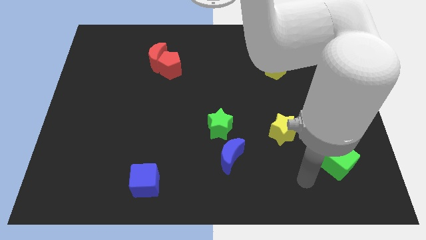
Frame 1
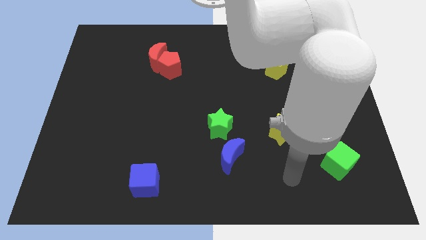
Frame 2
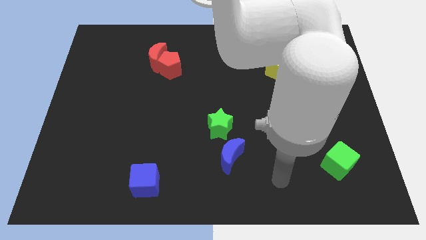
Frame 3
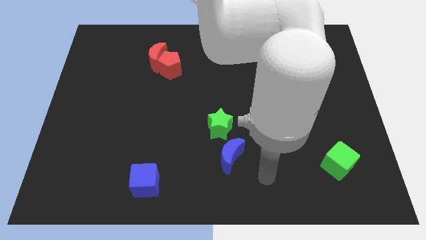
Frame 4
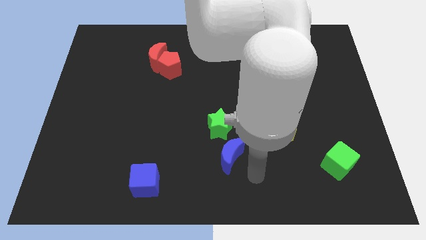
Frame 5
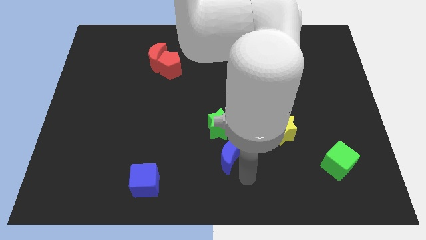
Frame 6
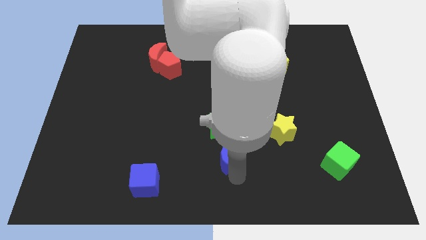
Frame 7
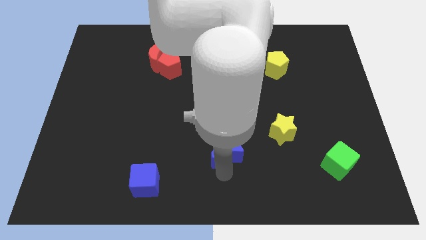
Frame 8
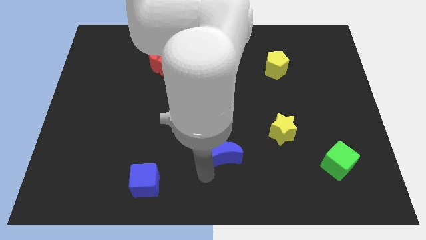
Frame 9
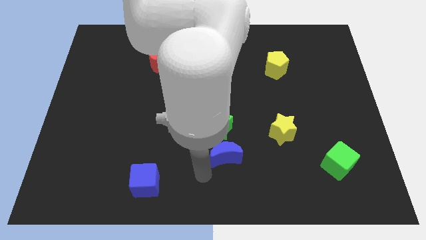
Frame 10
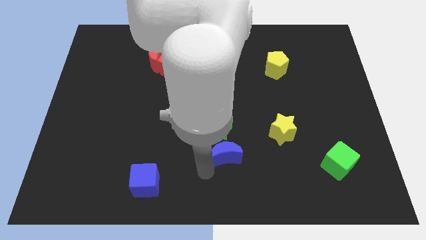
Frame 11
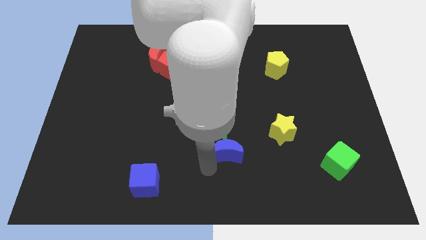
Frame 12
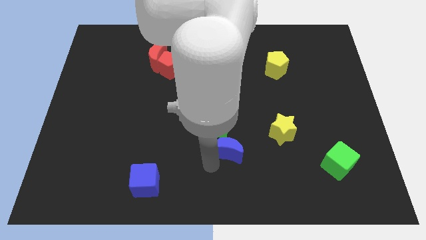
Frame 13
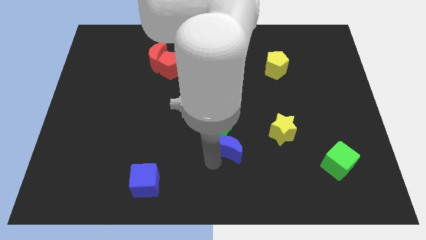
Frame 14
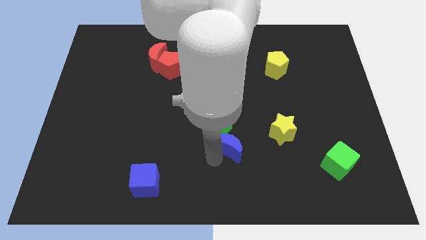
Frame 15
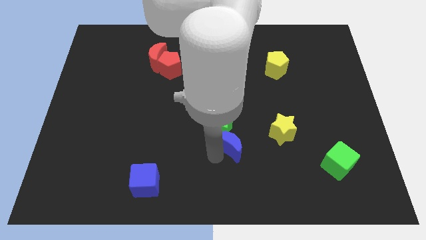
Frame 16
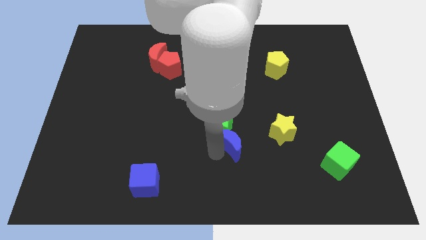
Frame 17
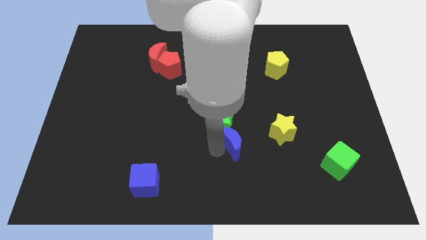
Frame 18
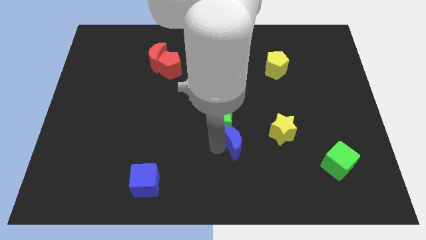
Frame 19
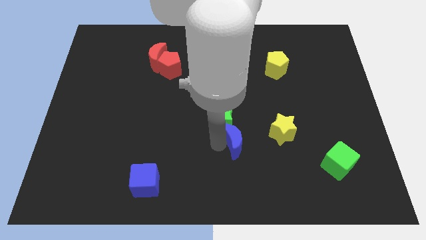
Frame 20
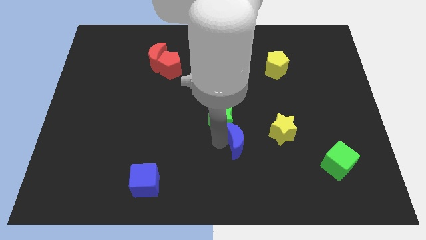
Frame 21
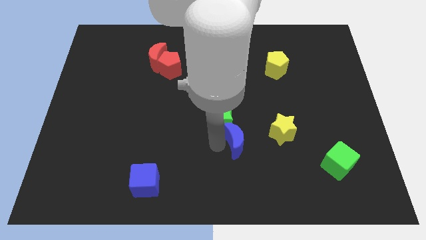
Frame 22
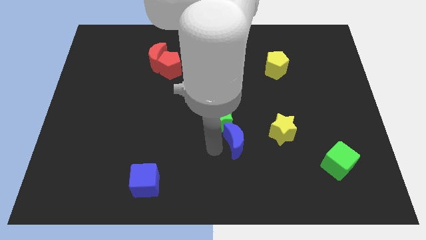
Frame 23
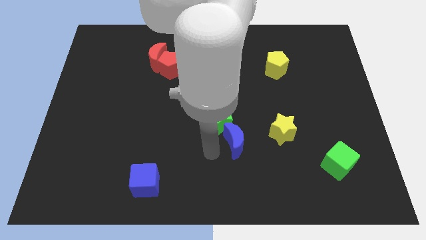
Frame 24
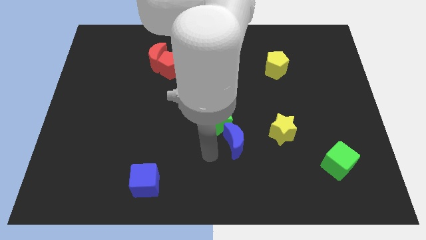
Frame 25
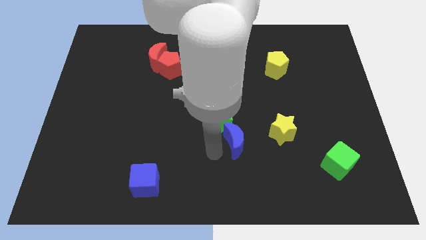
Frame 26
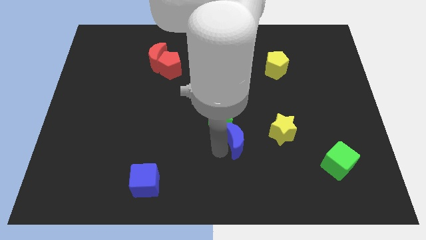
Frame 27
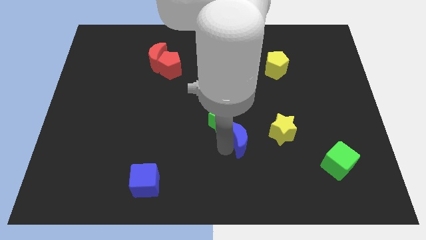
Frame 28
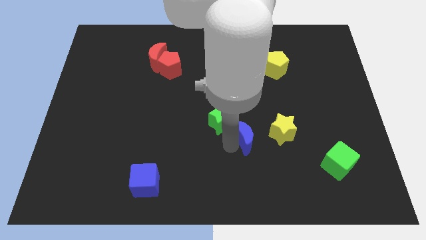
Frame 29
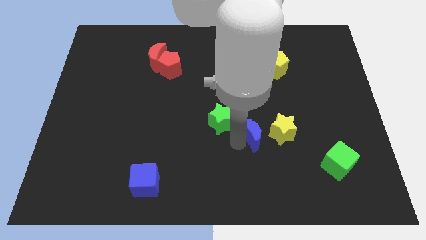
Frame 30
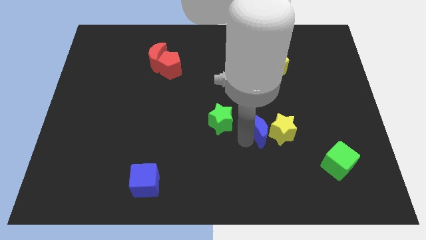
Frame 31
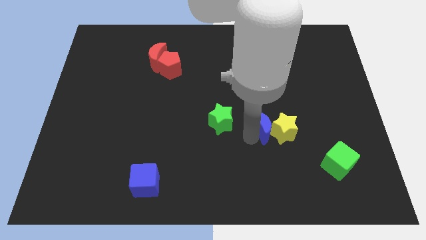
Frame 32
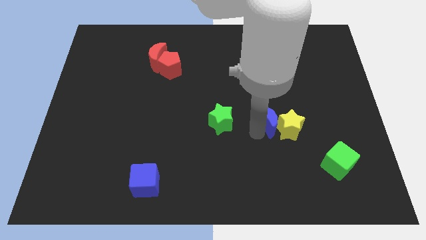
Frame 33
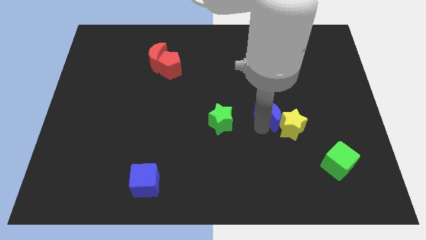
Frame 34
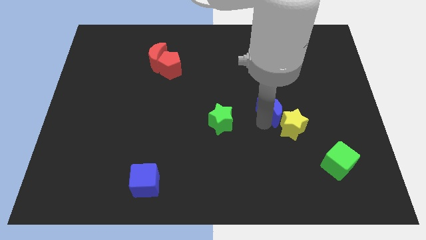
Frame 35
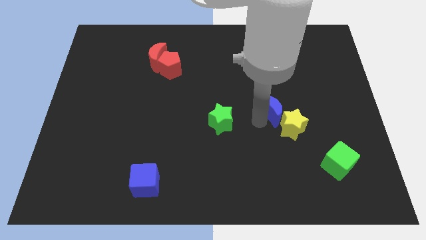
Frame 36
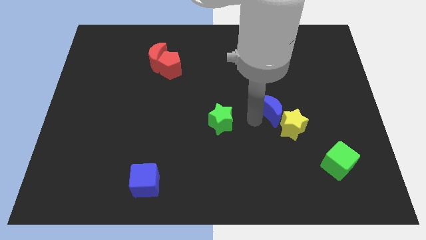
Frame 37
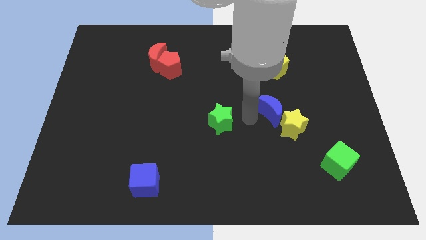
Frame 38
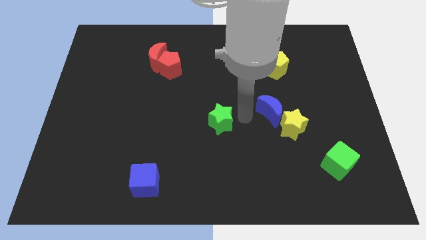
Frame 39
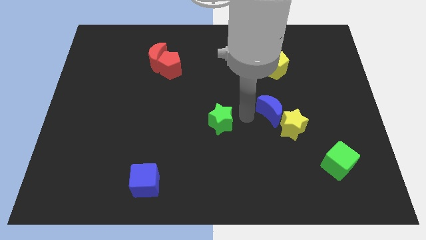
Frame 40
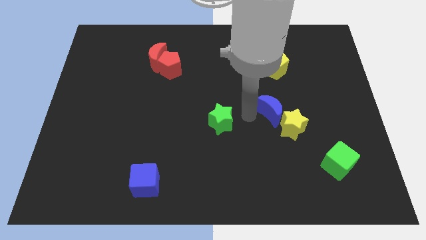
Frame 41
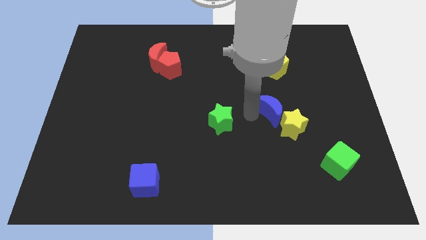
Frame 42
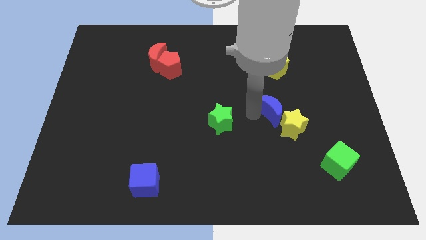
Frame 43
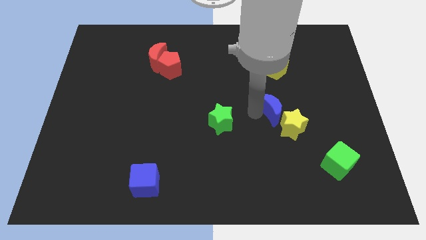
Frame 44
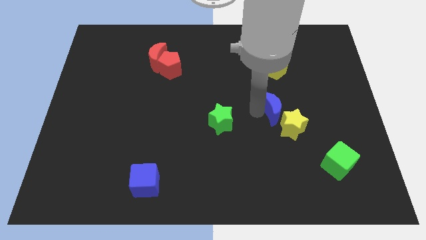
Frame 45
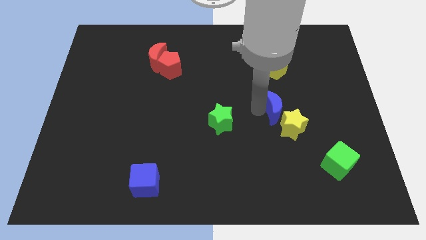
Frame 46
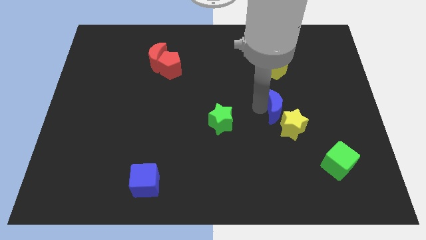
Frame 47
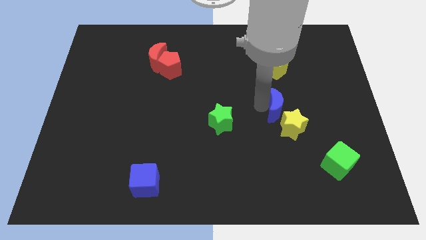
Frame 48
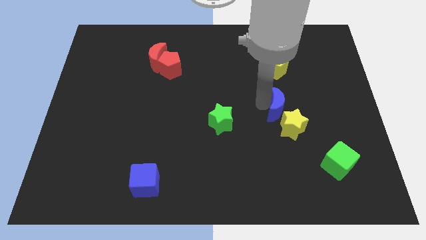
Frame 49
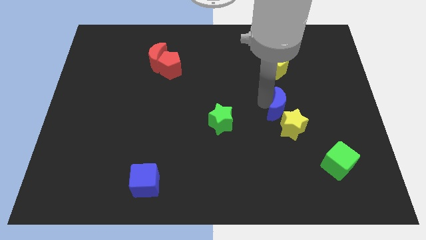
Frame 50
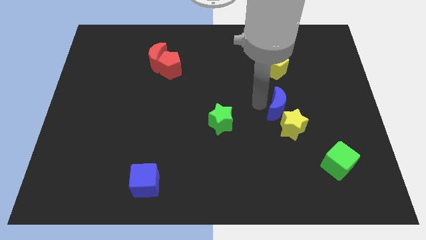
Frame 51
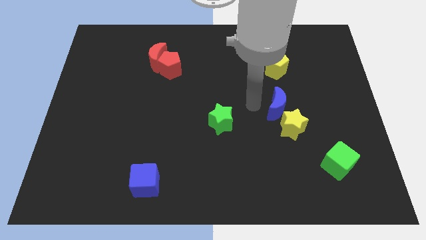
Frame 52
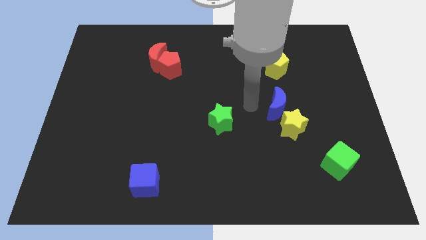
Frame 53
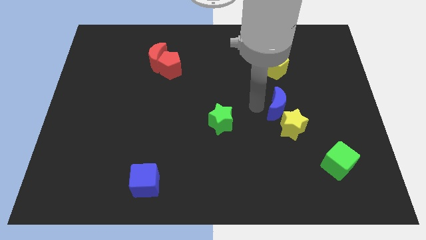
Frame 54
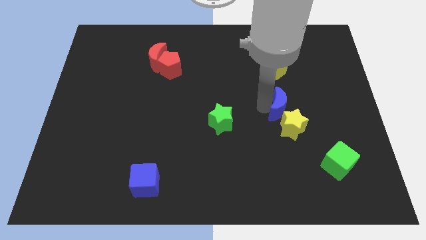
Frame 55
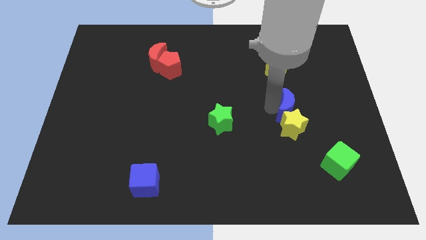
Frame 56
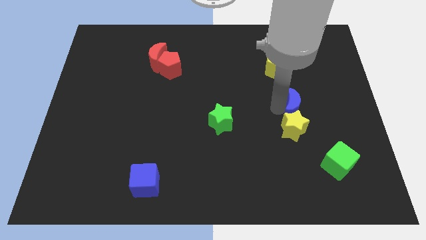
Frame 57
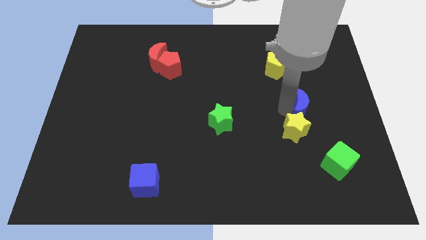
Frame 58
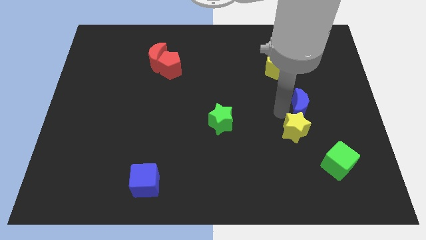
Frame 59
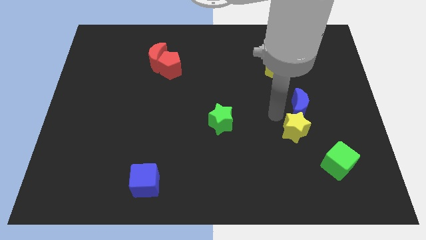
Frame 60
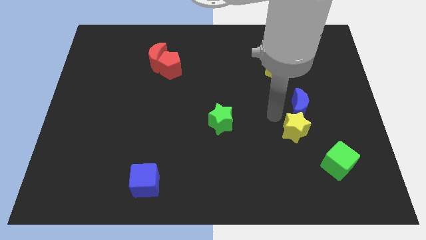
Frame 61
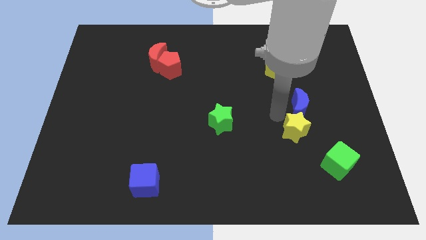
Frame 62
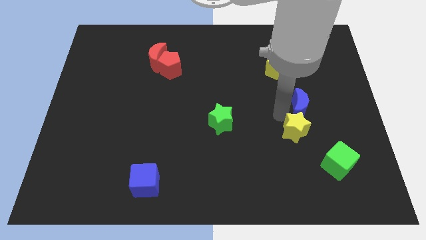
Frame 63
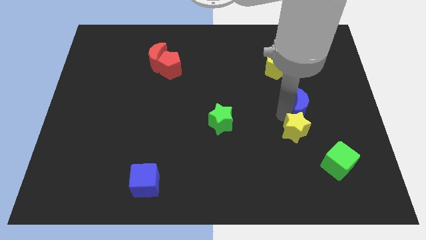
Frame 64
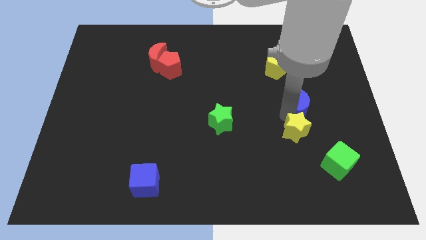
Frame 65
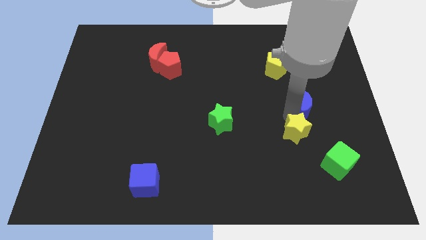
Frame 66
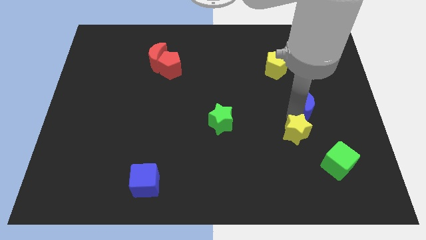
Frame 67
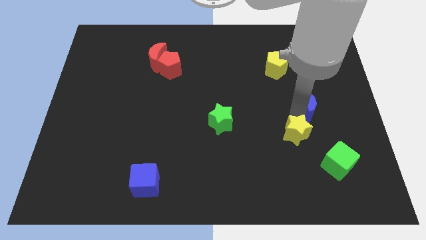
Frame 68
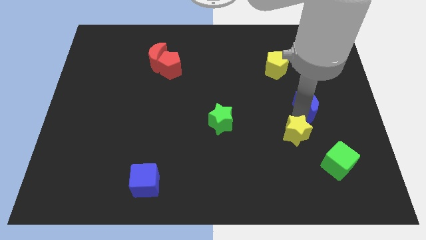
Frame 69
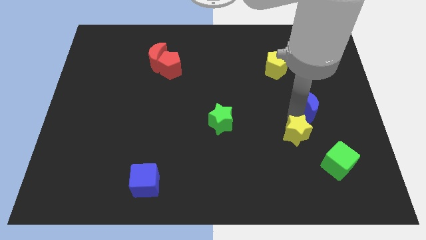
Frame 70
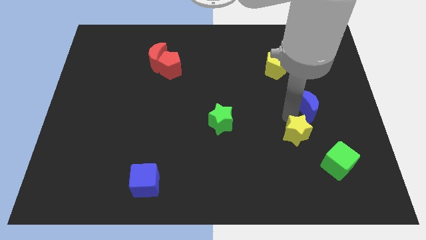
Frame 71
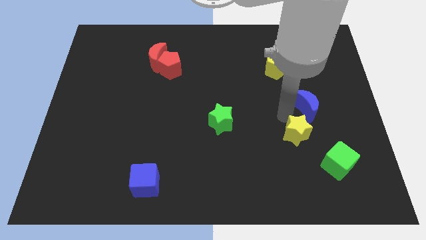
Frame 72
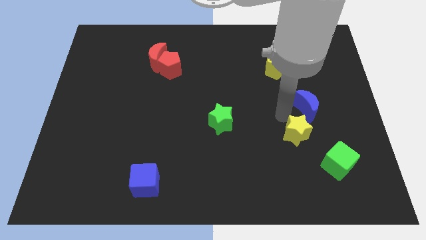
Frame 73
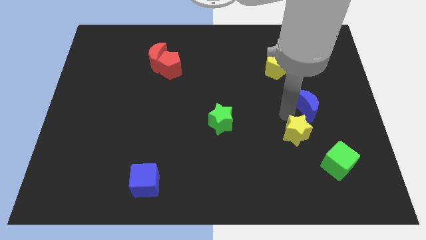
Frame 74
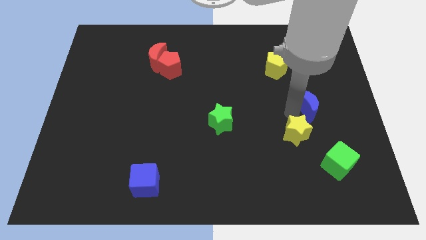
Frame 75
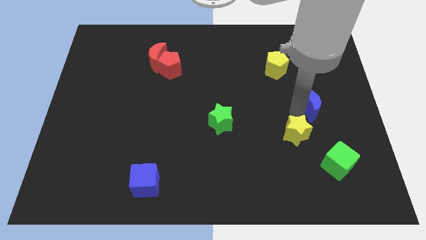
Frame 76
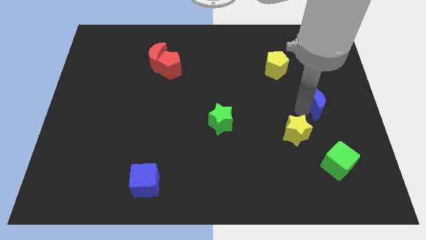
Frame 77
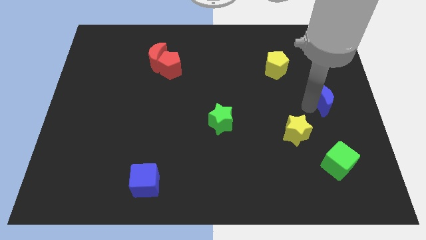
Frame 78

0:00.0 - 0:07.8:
put the blue moon to the center right
